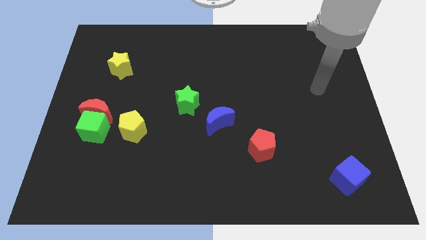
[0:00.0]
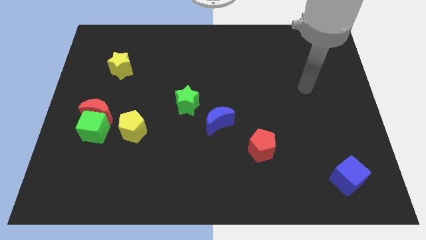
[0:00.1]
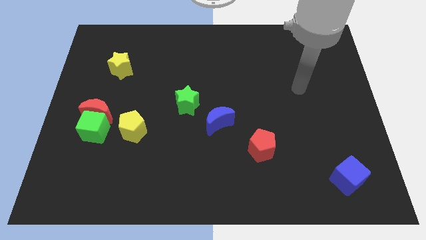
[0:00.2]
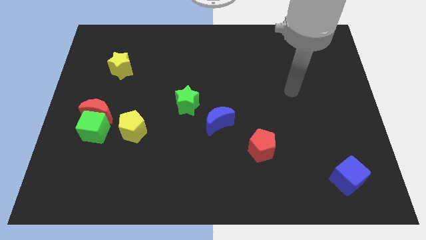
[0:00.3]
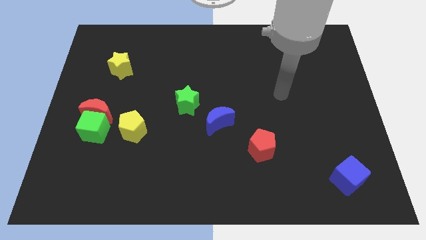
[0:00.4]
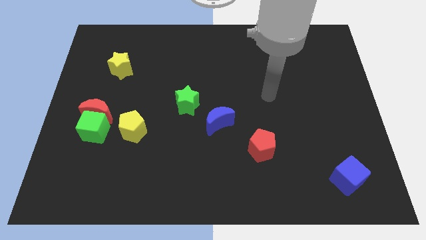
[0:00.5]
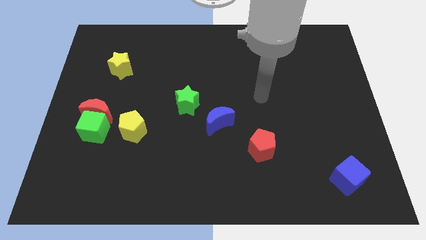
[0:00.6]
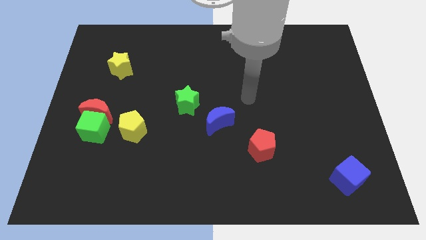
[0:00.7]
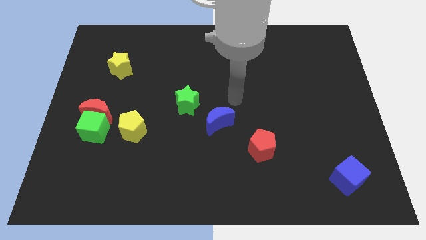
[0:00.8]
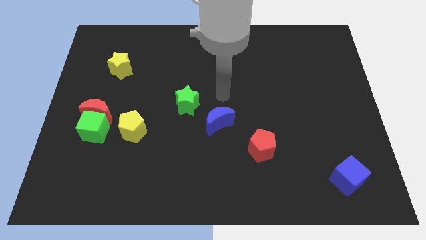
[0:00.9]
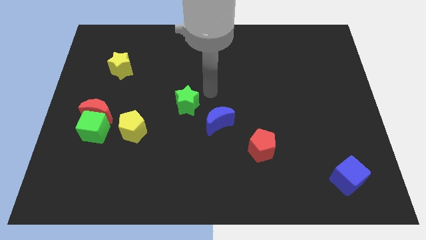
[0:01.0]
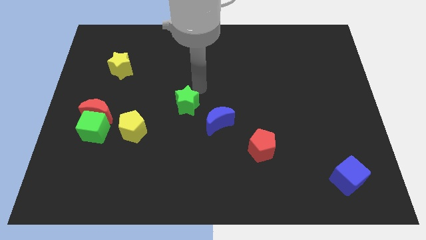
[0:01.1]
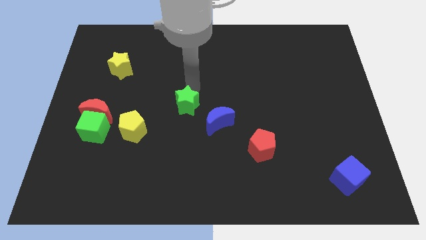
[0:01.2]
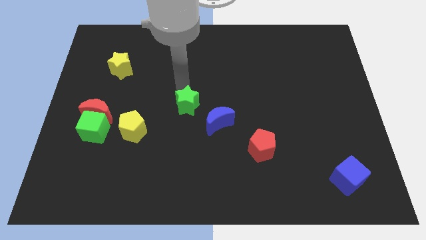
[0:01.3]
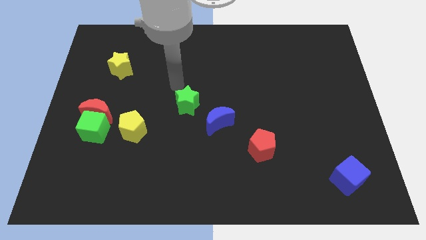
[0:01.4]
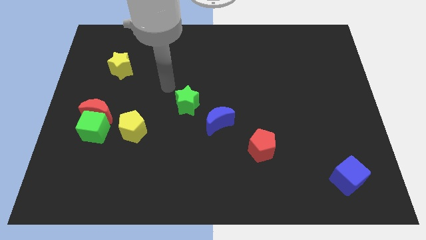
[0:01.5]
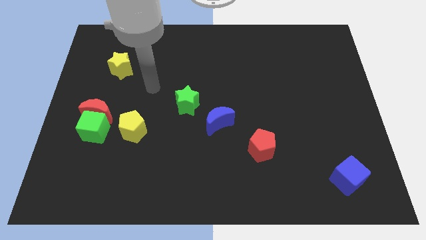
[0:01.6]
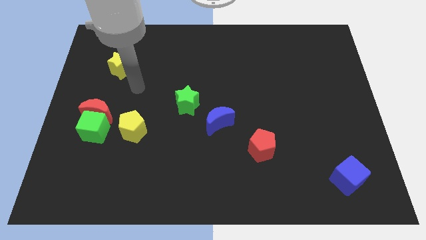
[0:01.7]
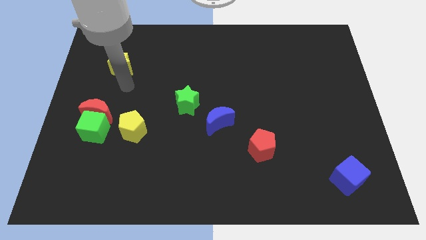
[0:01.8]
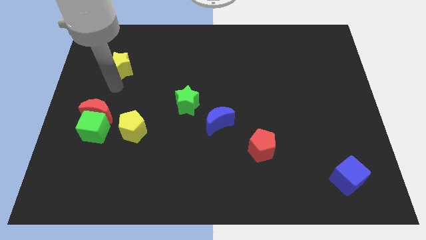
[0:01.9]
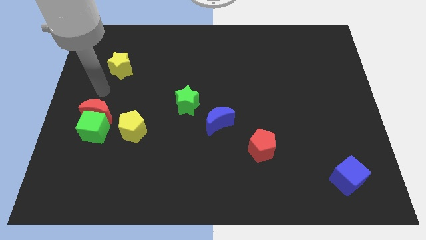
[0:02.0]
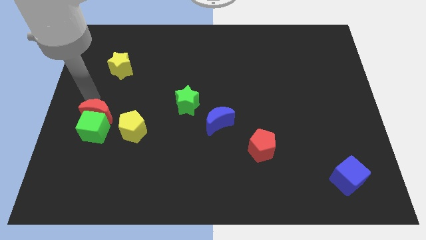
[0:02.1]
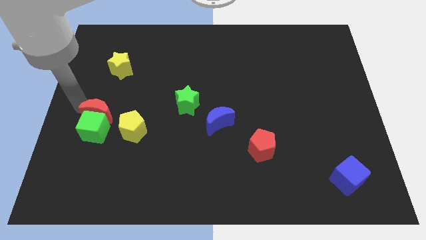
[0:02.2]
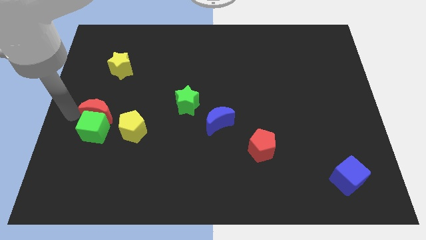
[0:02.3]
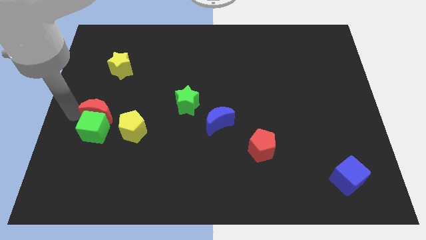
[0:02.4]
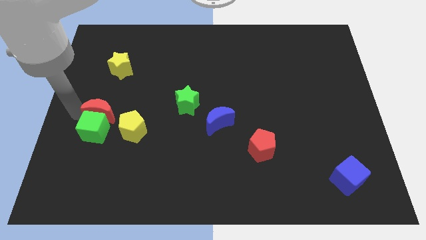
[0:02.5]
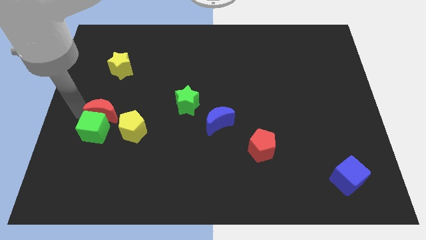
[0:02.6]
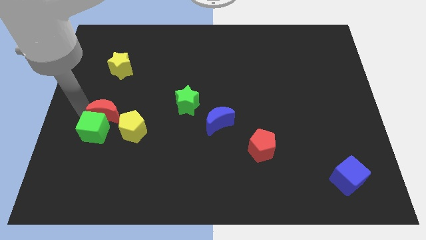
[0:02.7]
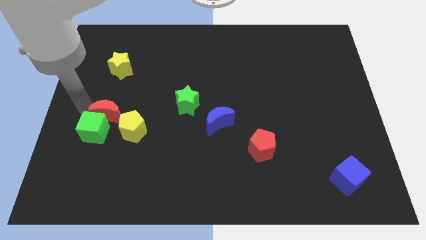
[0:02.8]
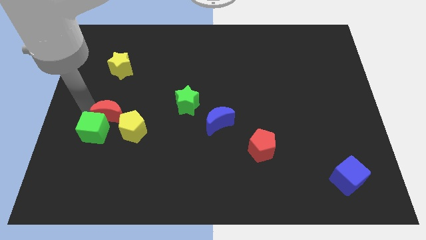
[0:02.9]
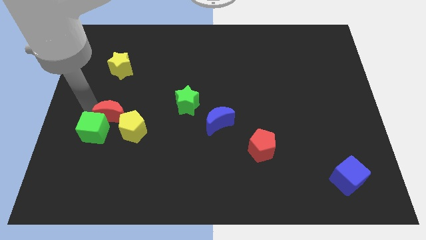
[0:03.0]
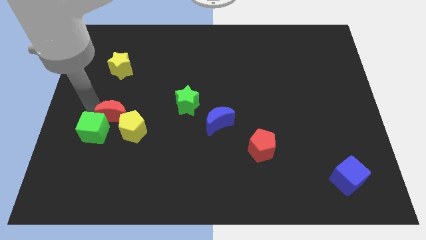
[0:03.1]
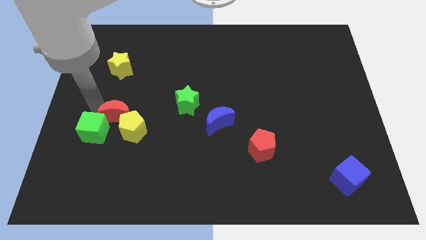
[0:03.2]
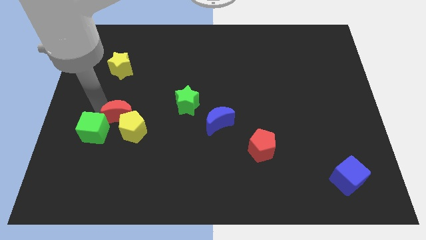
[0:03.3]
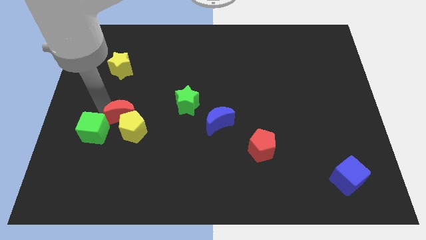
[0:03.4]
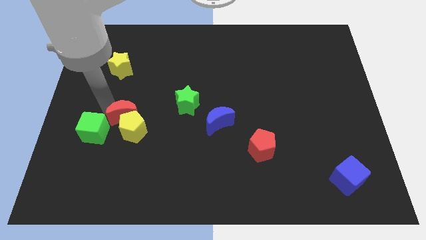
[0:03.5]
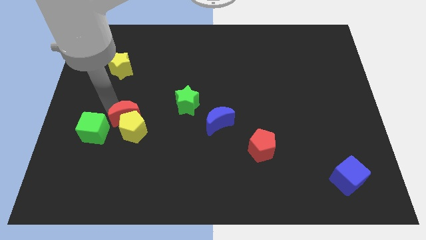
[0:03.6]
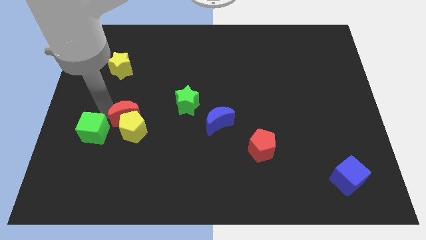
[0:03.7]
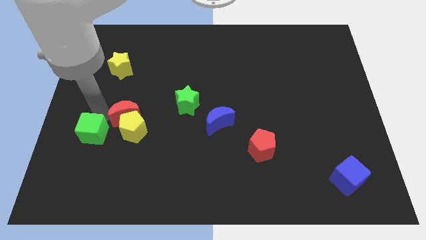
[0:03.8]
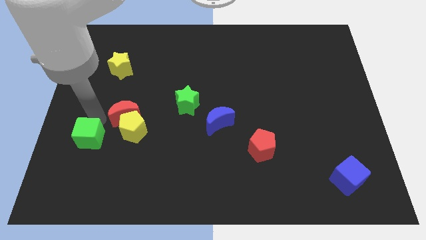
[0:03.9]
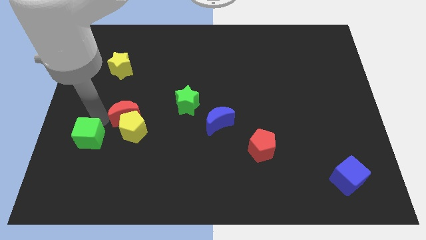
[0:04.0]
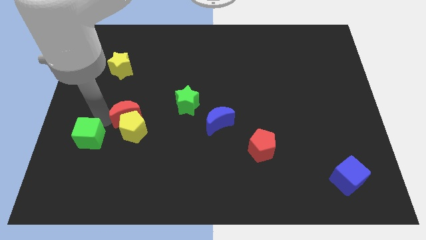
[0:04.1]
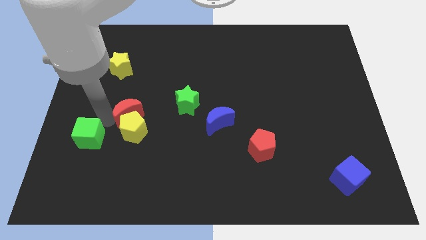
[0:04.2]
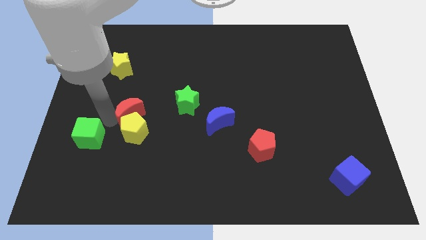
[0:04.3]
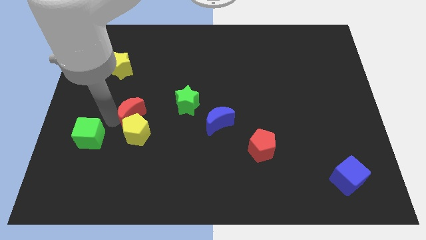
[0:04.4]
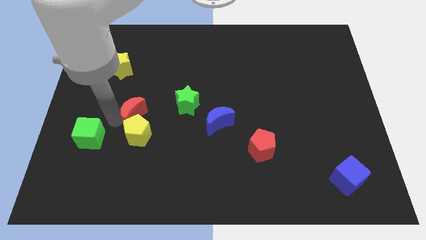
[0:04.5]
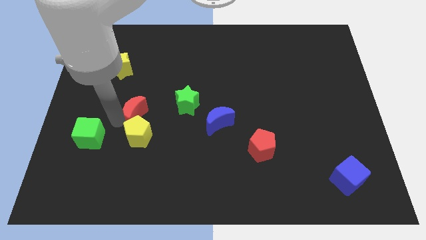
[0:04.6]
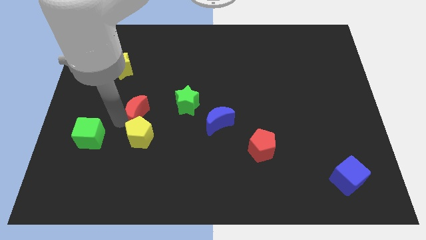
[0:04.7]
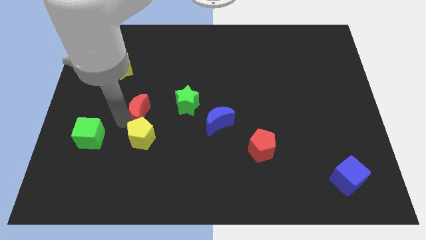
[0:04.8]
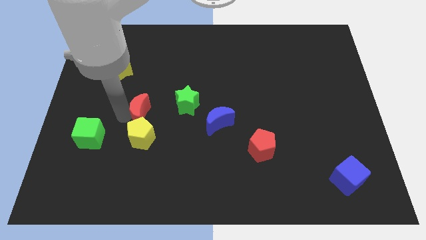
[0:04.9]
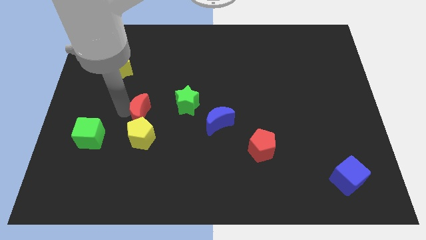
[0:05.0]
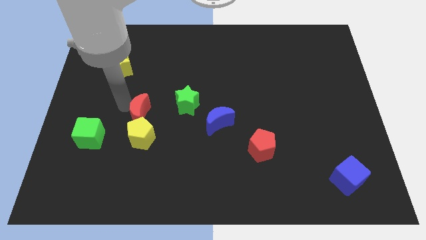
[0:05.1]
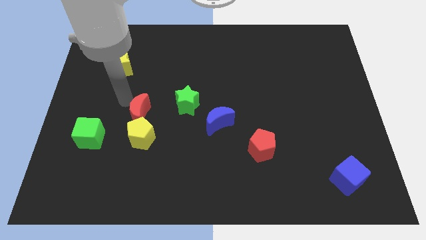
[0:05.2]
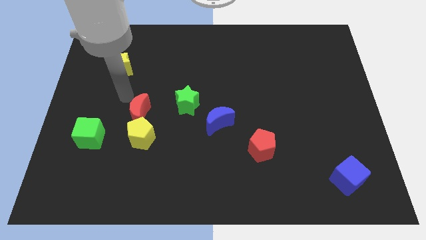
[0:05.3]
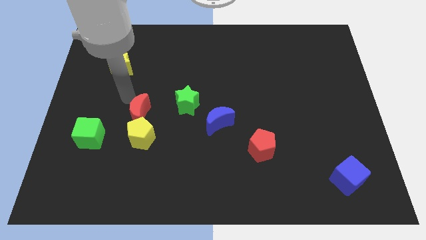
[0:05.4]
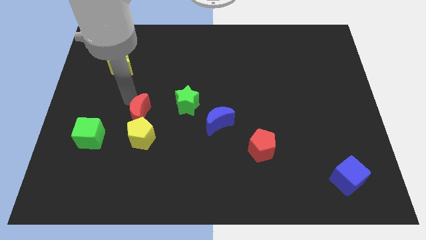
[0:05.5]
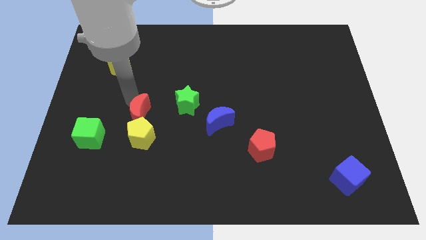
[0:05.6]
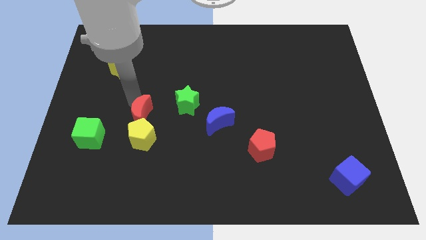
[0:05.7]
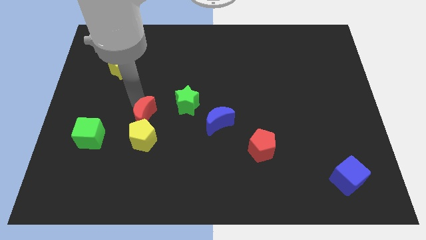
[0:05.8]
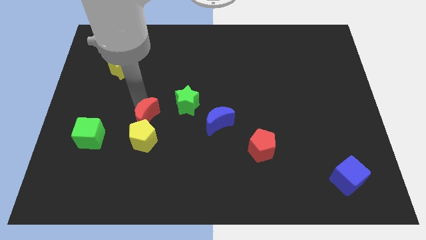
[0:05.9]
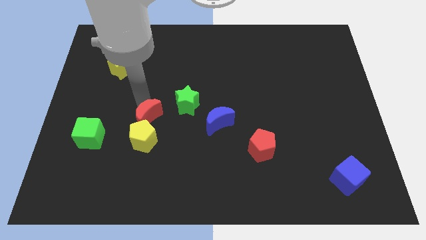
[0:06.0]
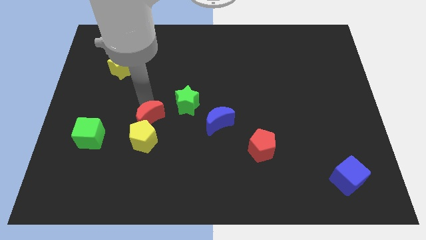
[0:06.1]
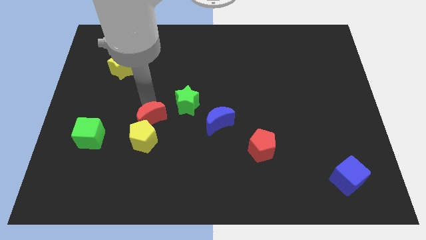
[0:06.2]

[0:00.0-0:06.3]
slightly push the red moon diagonally downwards and right

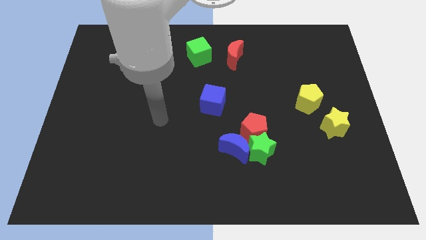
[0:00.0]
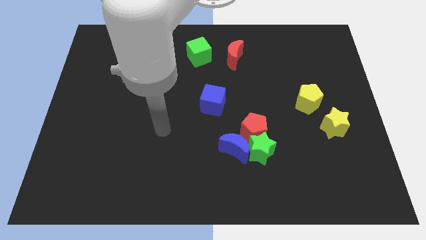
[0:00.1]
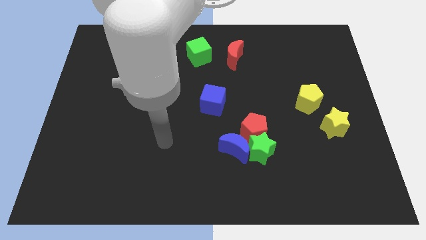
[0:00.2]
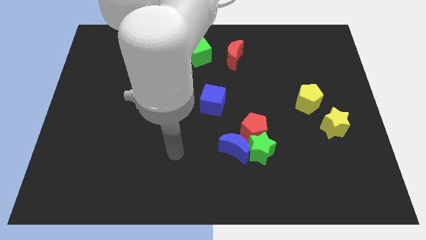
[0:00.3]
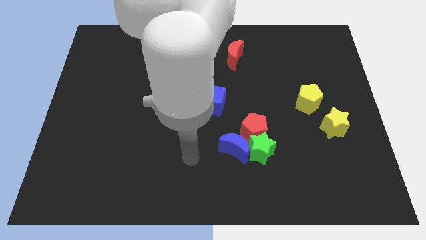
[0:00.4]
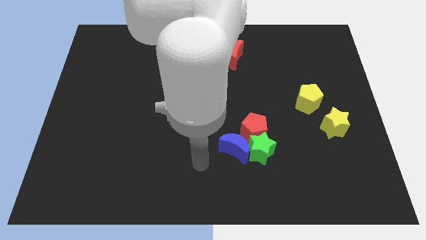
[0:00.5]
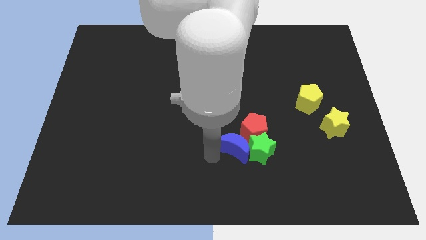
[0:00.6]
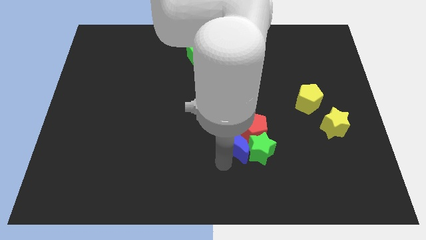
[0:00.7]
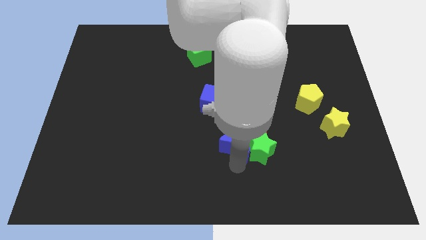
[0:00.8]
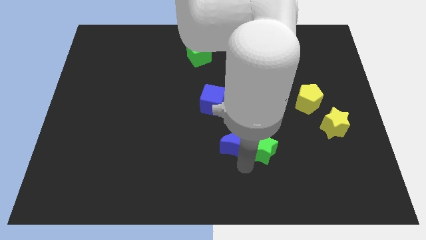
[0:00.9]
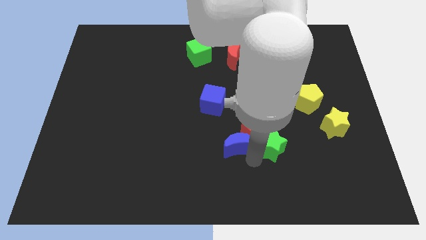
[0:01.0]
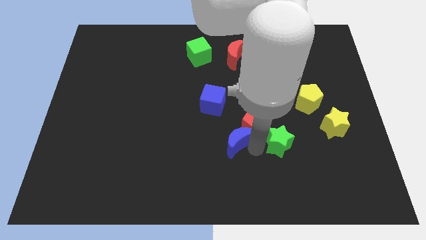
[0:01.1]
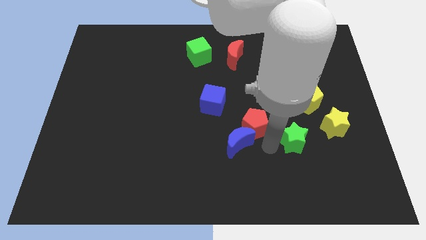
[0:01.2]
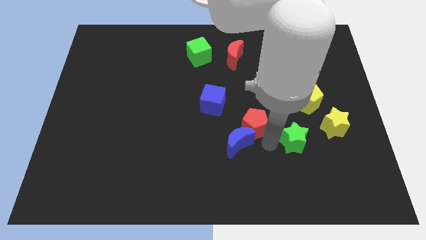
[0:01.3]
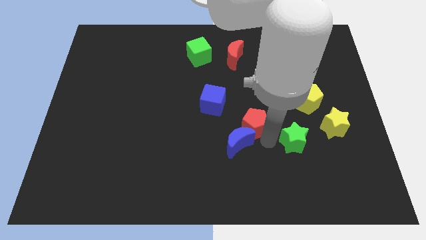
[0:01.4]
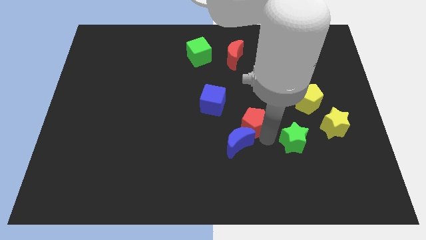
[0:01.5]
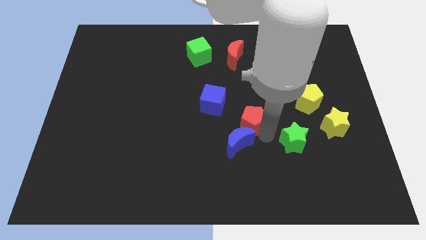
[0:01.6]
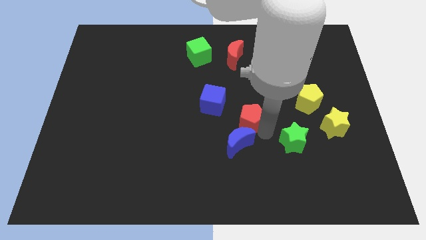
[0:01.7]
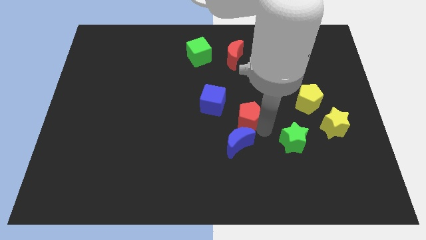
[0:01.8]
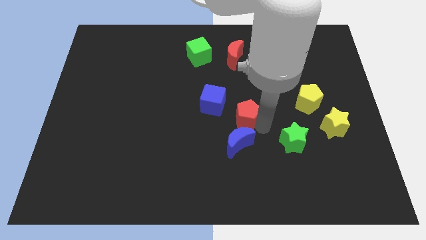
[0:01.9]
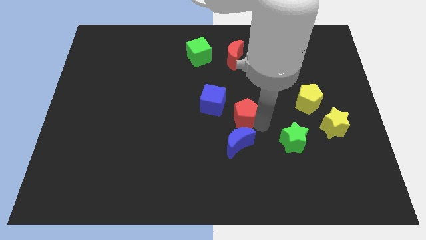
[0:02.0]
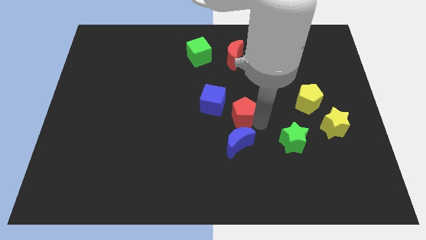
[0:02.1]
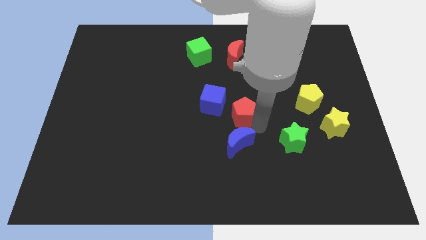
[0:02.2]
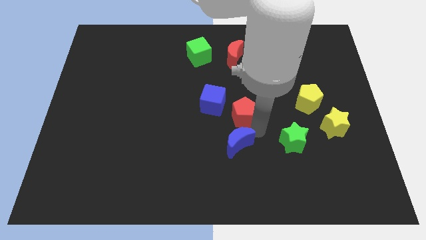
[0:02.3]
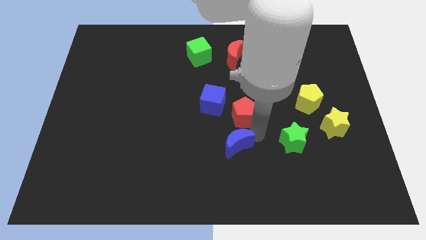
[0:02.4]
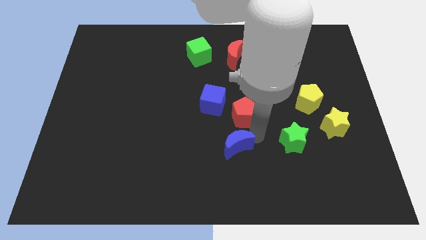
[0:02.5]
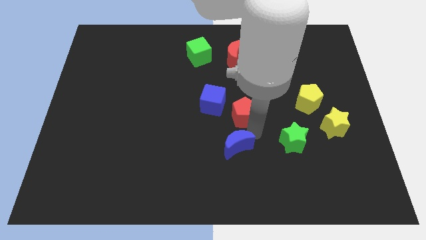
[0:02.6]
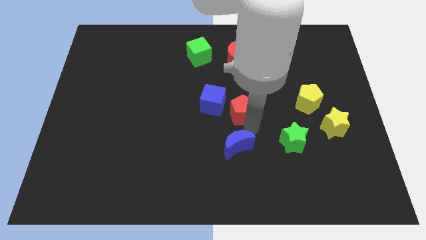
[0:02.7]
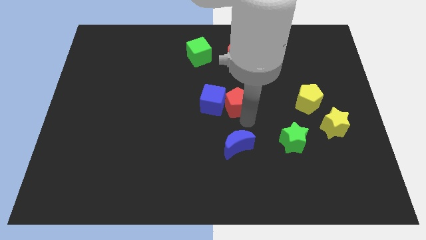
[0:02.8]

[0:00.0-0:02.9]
push the red pentagon a little bit up and to the left
